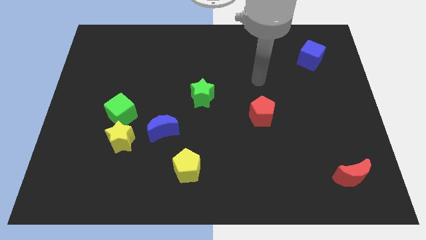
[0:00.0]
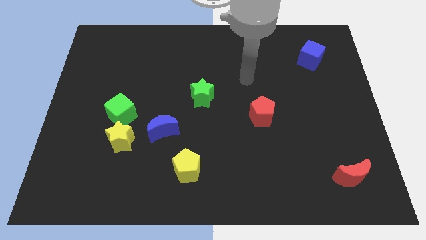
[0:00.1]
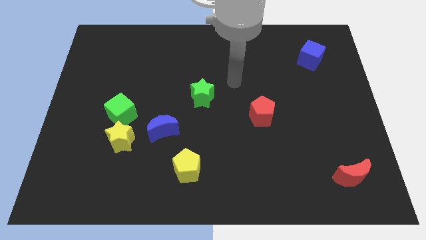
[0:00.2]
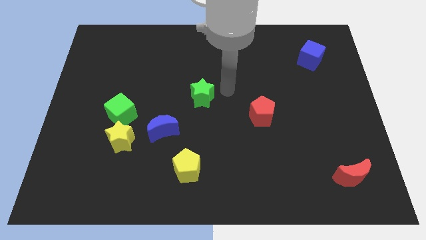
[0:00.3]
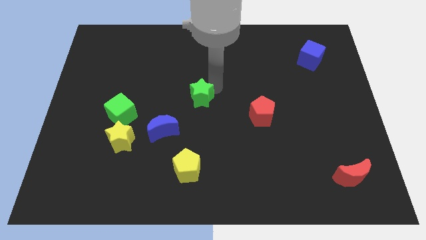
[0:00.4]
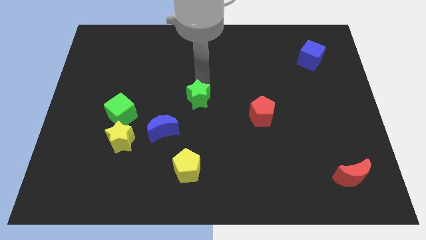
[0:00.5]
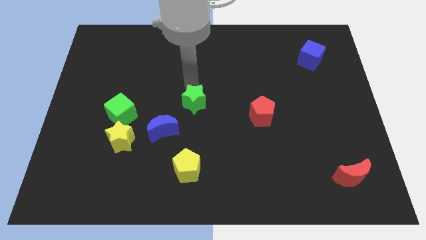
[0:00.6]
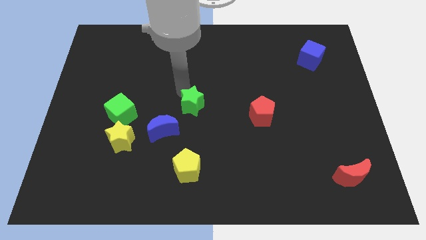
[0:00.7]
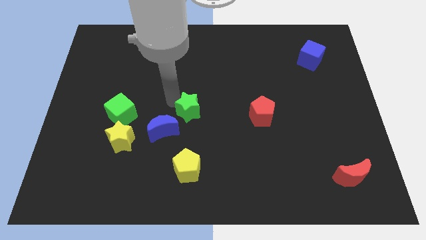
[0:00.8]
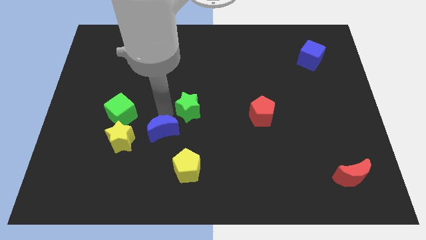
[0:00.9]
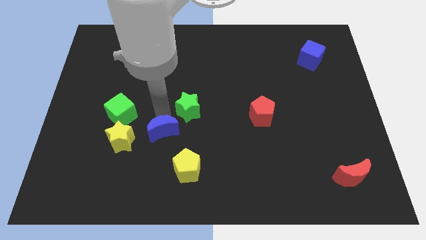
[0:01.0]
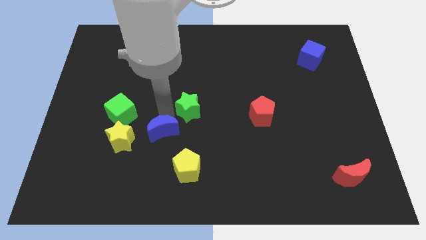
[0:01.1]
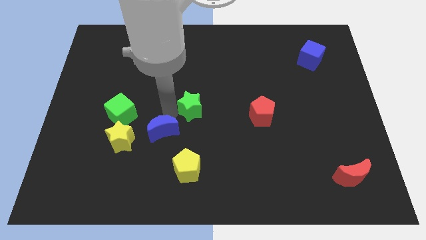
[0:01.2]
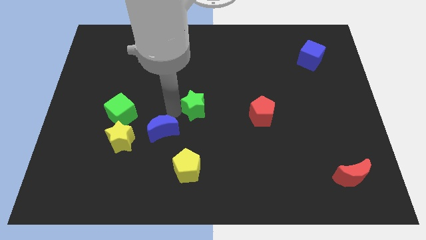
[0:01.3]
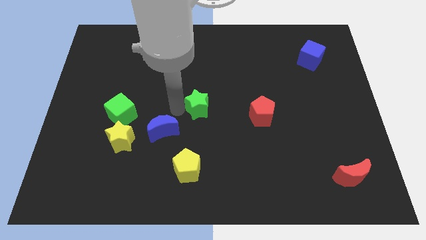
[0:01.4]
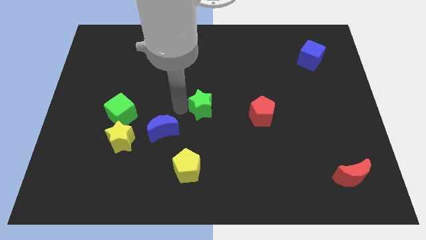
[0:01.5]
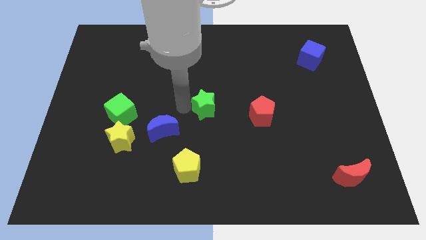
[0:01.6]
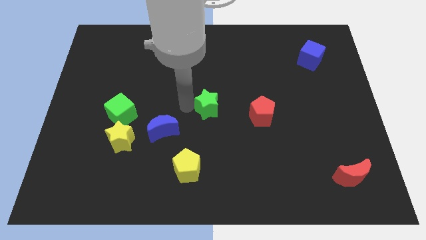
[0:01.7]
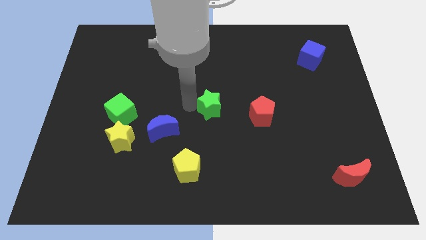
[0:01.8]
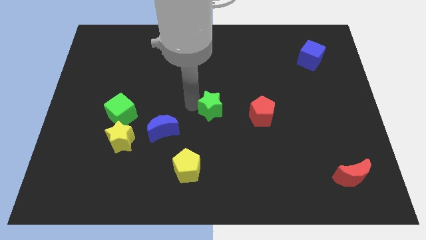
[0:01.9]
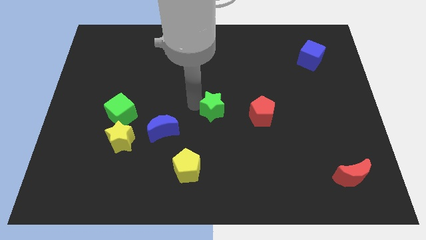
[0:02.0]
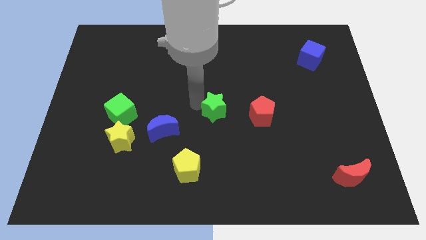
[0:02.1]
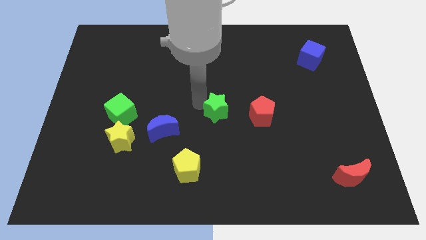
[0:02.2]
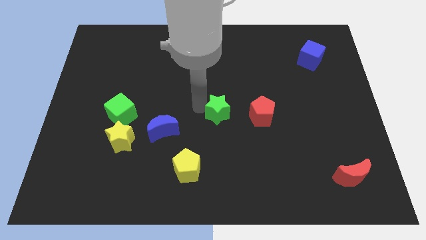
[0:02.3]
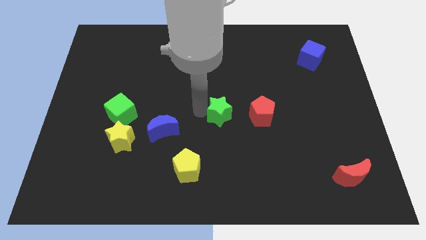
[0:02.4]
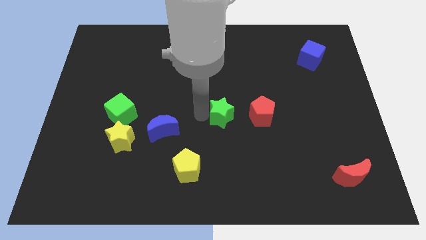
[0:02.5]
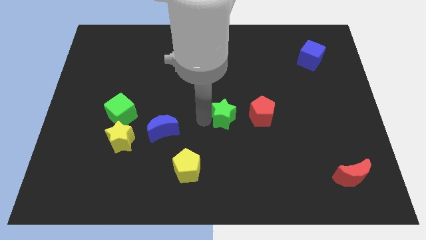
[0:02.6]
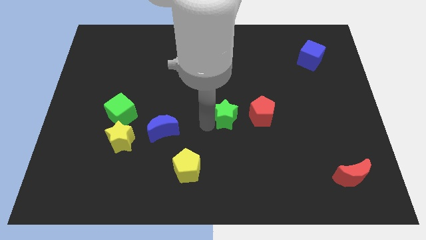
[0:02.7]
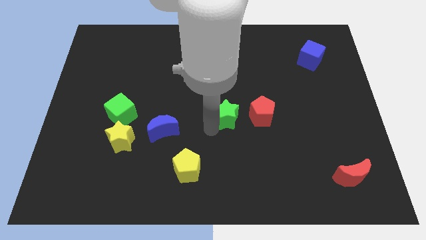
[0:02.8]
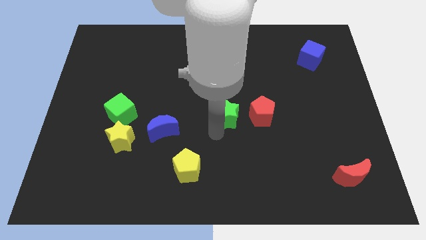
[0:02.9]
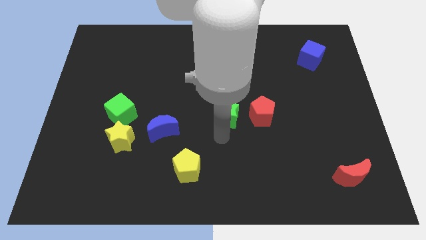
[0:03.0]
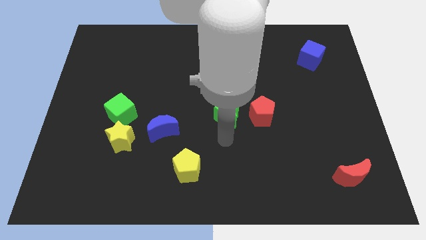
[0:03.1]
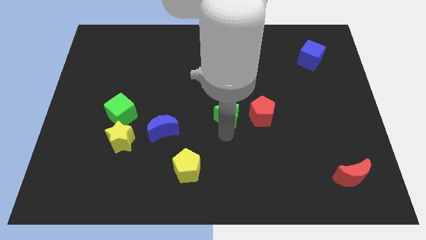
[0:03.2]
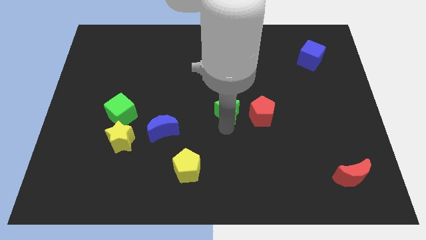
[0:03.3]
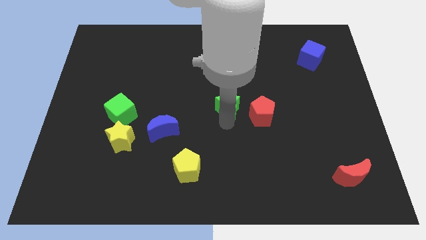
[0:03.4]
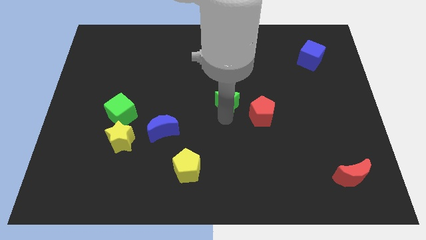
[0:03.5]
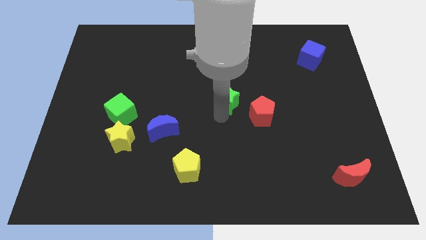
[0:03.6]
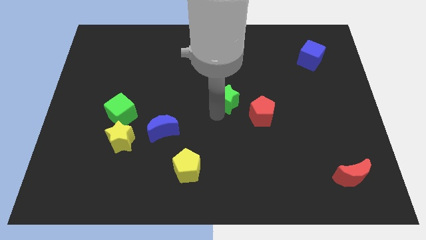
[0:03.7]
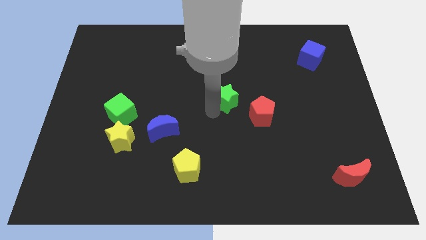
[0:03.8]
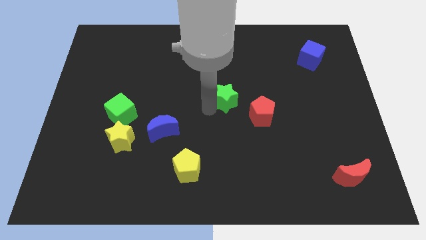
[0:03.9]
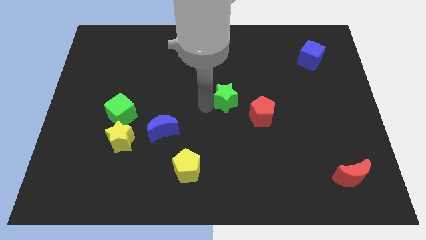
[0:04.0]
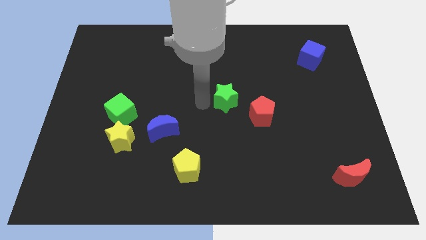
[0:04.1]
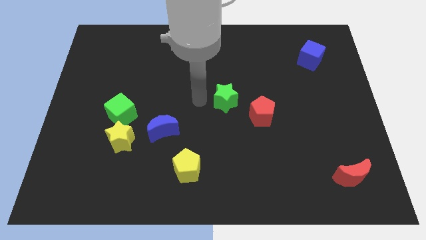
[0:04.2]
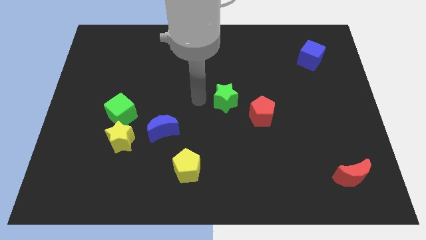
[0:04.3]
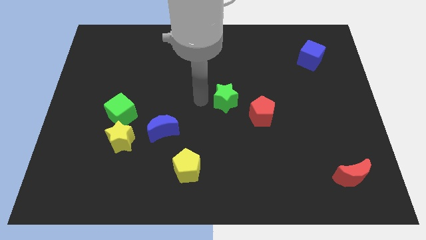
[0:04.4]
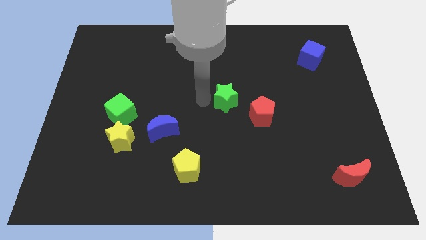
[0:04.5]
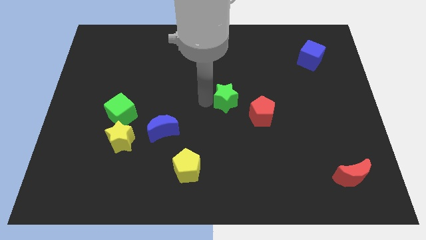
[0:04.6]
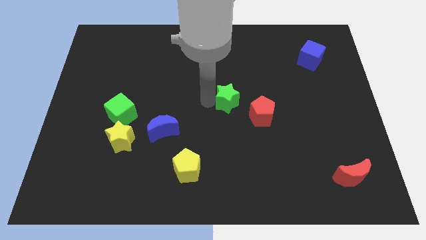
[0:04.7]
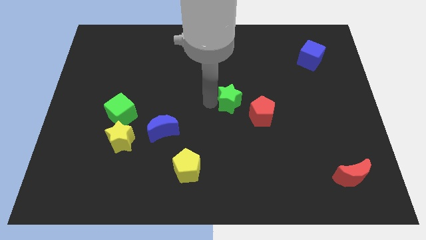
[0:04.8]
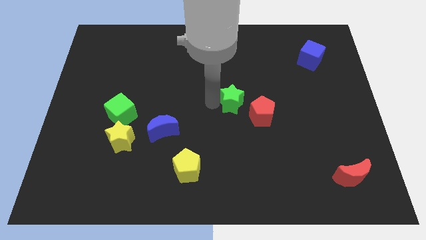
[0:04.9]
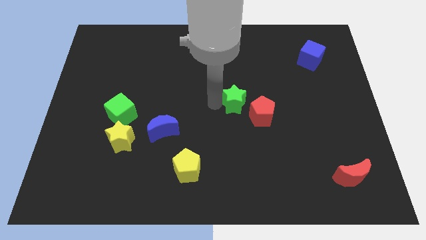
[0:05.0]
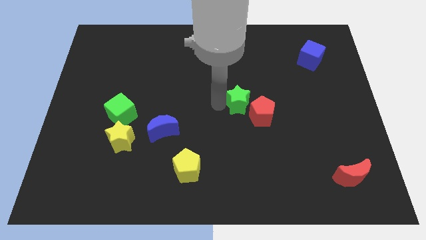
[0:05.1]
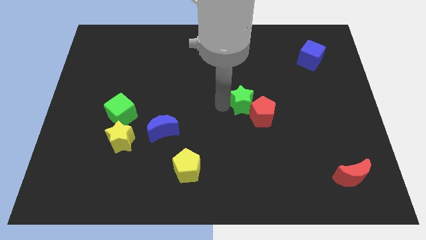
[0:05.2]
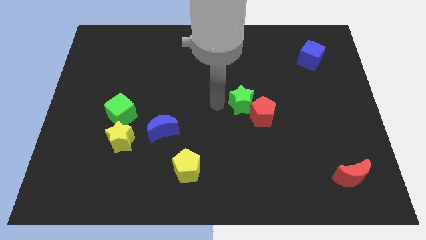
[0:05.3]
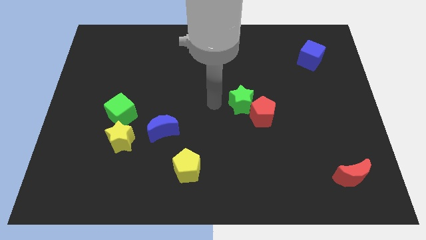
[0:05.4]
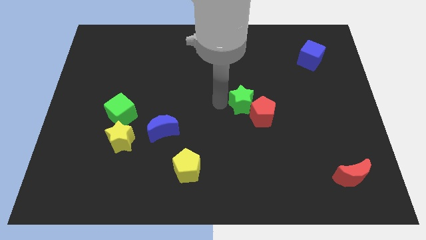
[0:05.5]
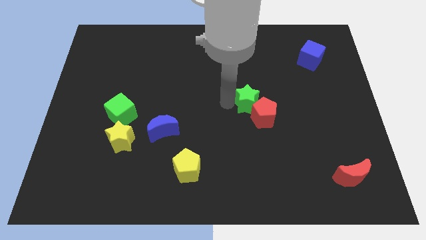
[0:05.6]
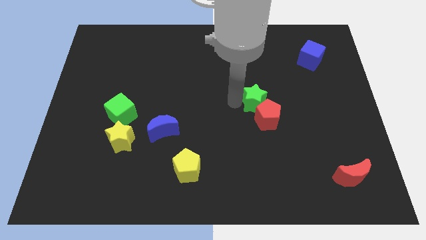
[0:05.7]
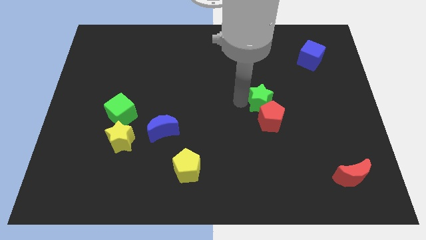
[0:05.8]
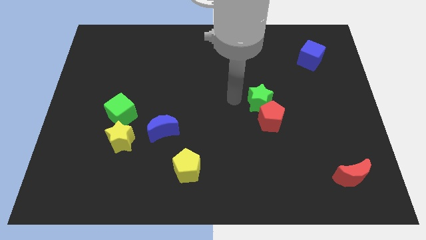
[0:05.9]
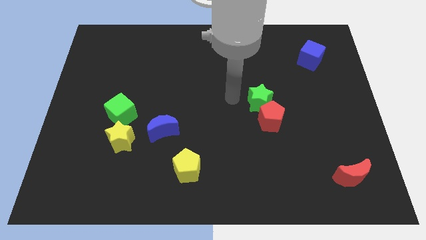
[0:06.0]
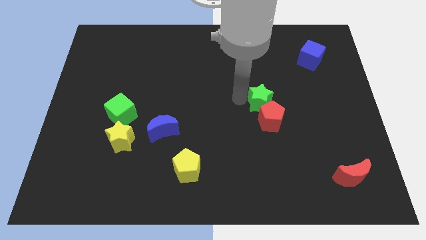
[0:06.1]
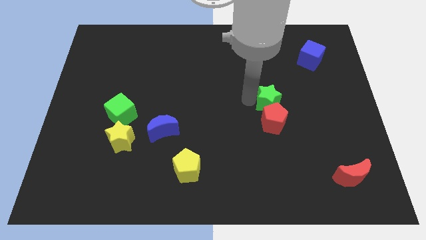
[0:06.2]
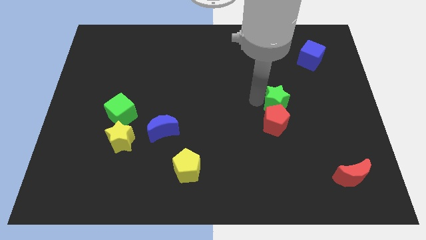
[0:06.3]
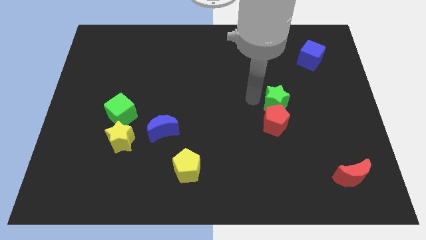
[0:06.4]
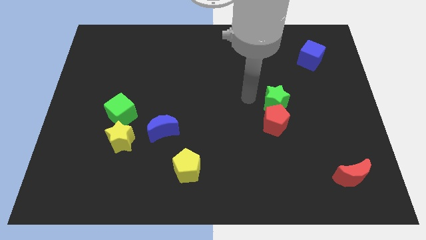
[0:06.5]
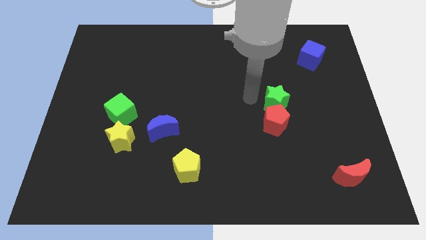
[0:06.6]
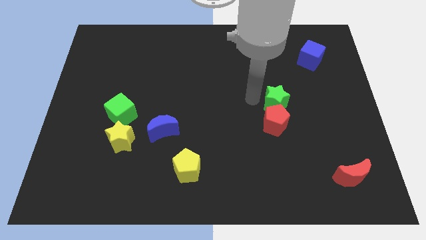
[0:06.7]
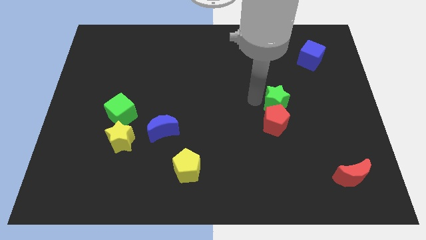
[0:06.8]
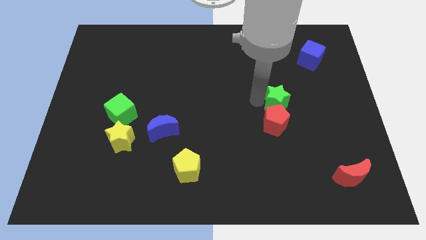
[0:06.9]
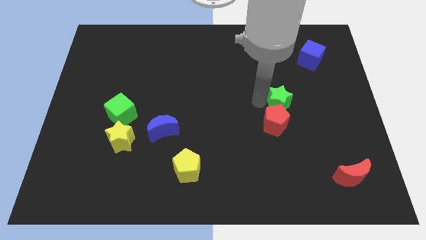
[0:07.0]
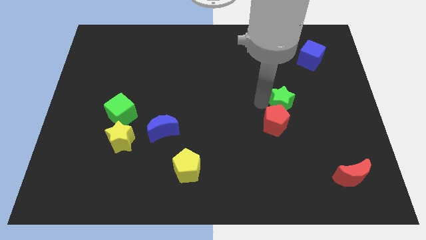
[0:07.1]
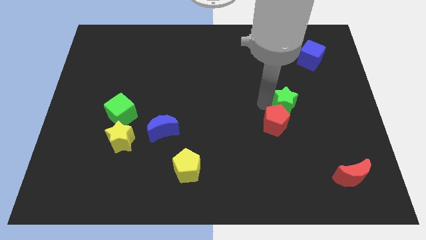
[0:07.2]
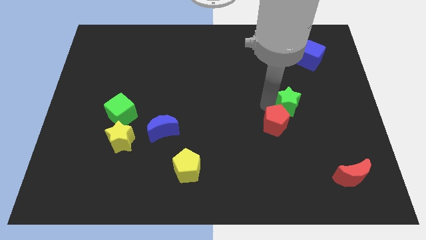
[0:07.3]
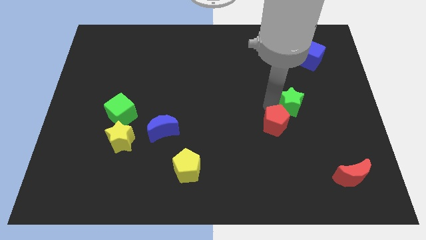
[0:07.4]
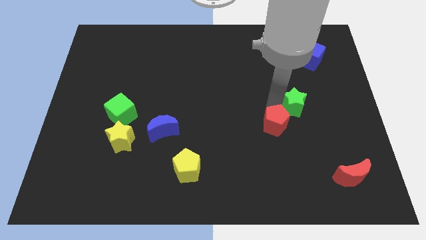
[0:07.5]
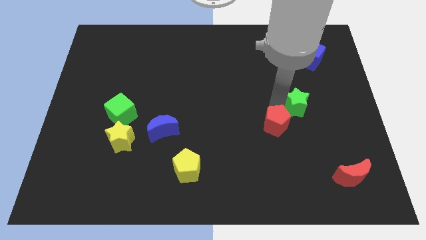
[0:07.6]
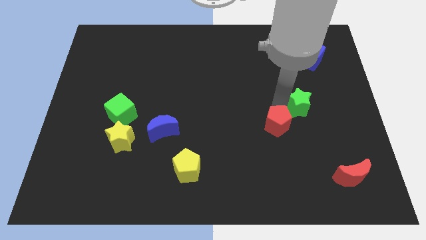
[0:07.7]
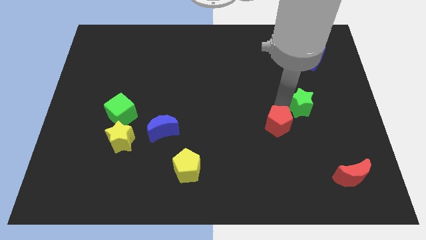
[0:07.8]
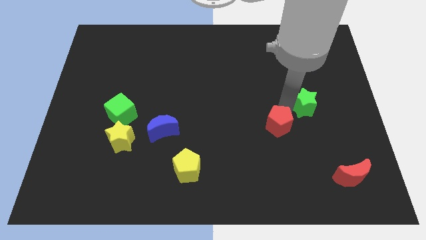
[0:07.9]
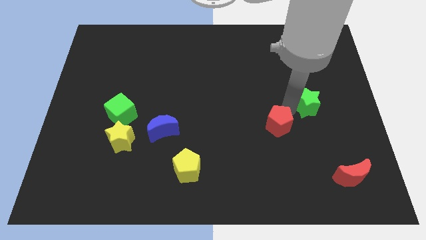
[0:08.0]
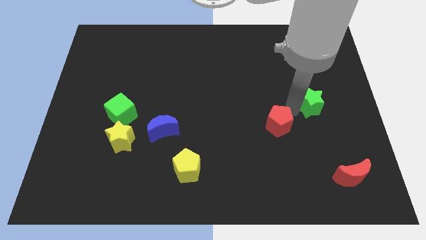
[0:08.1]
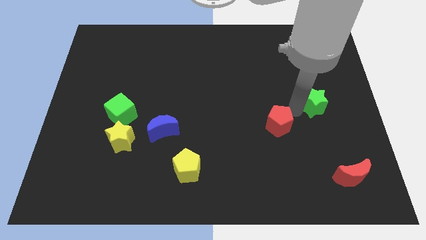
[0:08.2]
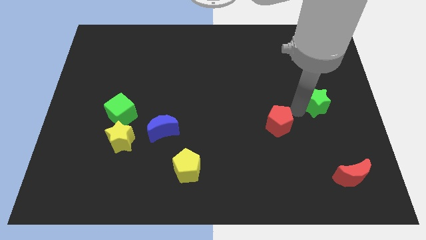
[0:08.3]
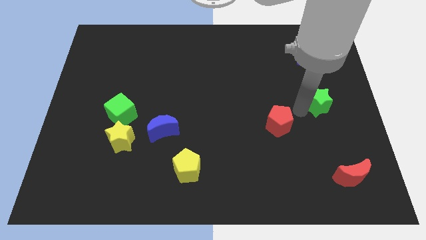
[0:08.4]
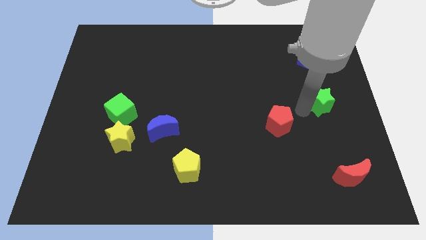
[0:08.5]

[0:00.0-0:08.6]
move the green star to the right side
